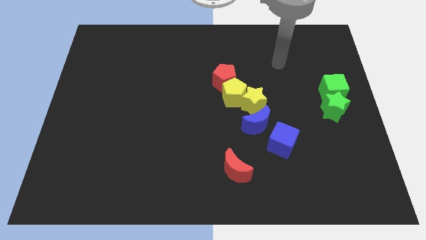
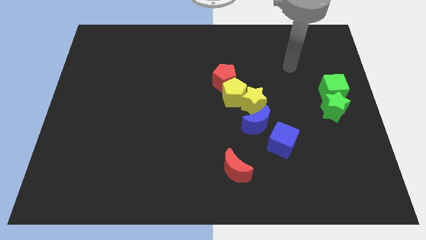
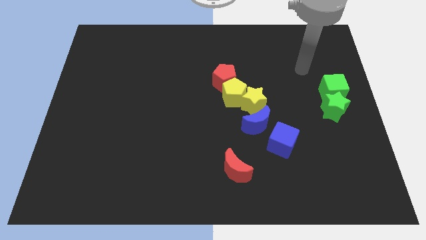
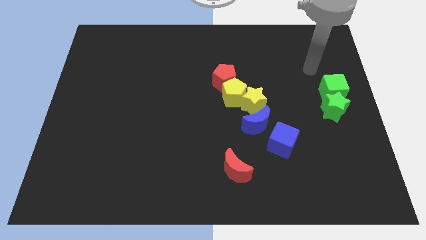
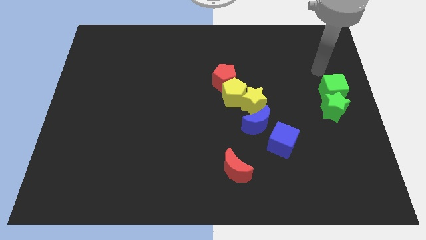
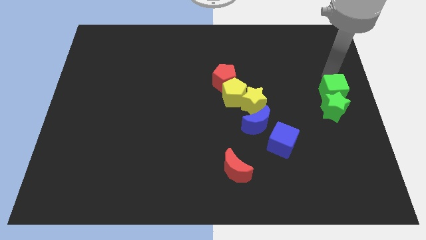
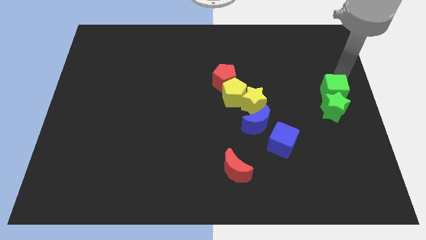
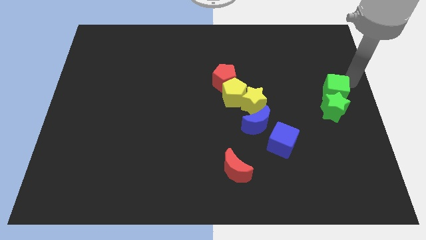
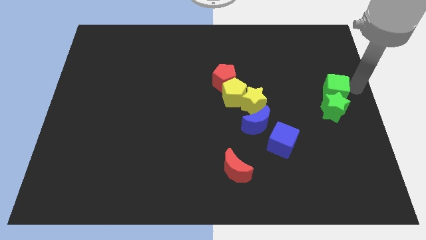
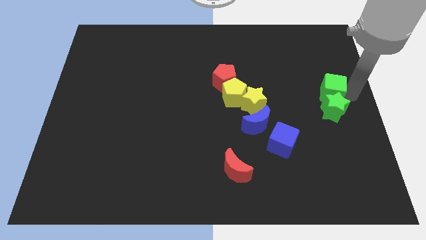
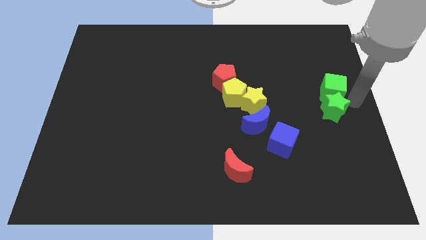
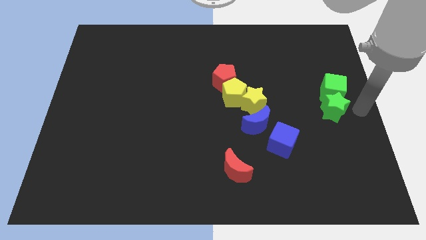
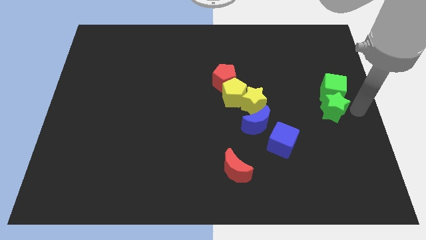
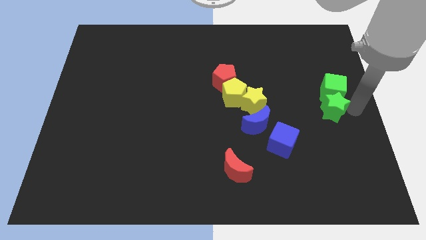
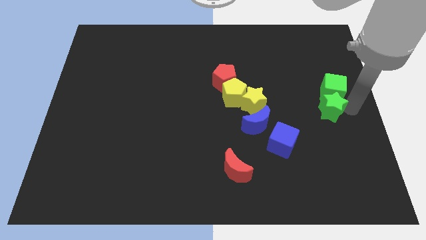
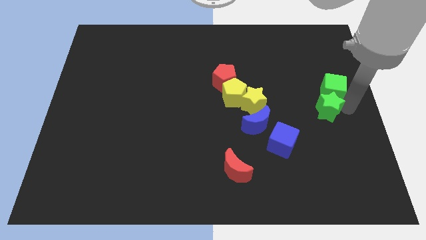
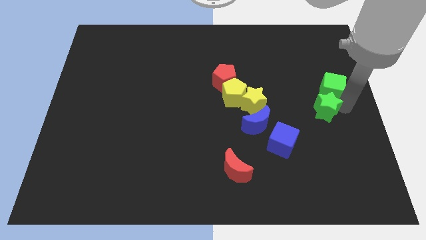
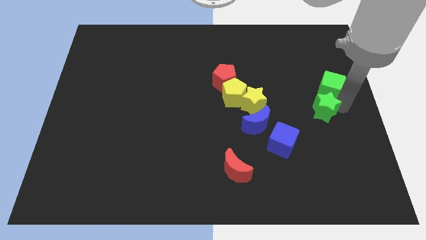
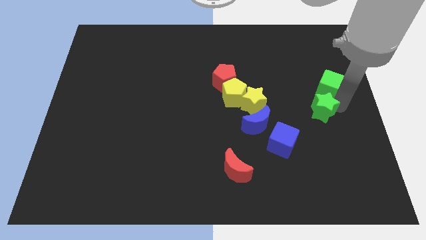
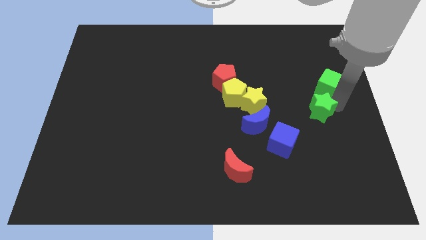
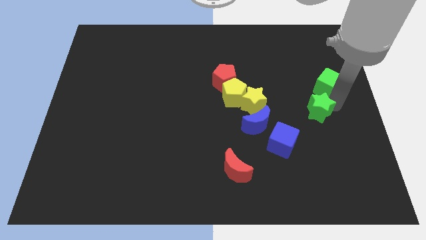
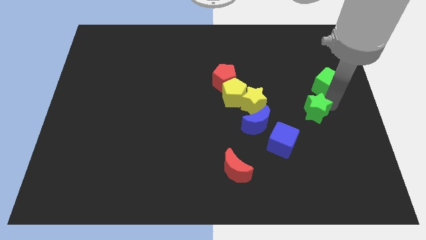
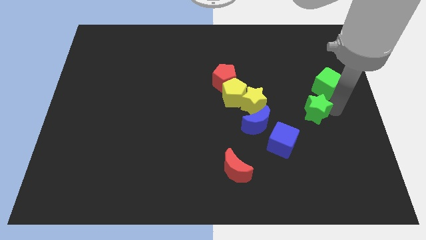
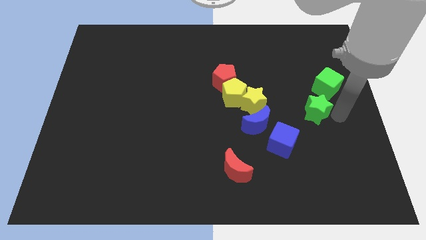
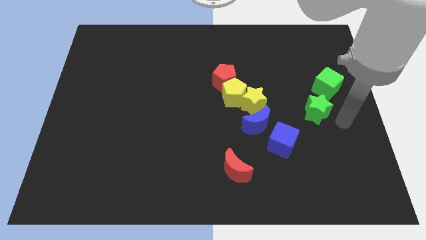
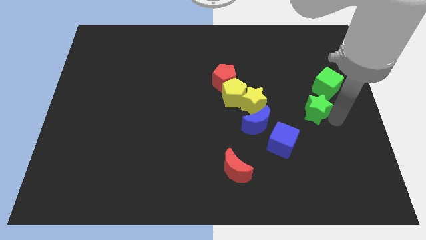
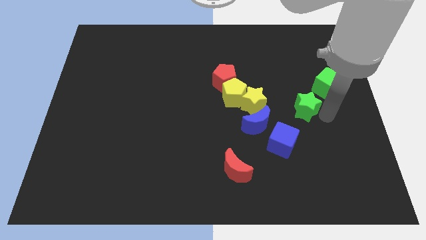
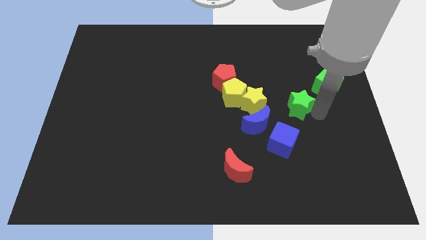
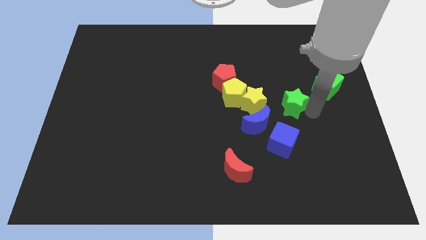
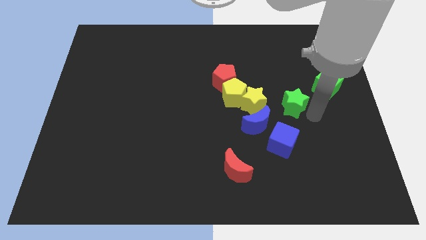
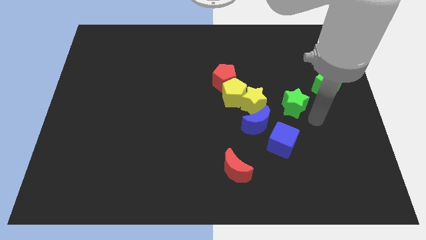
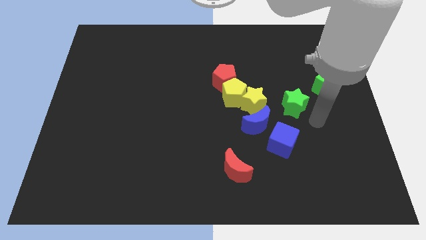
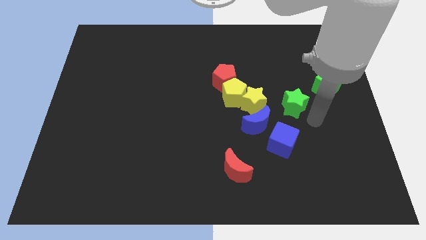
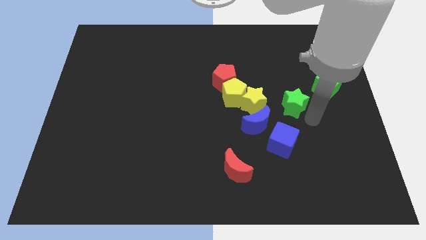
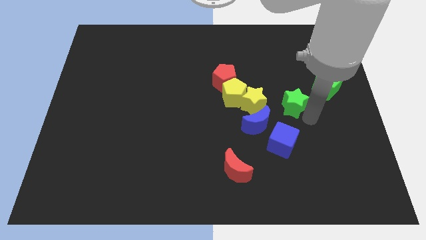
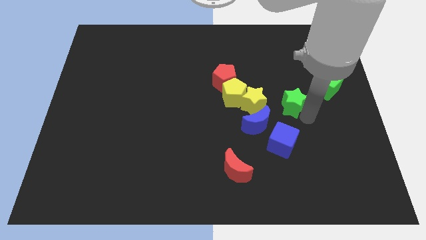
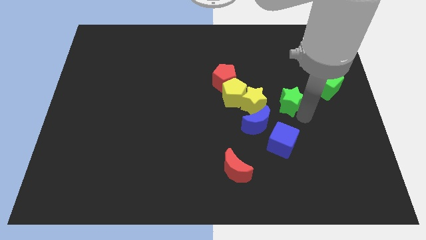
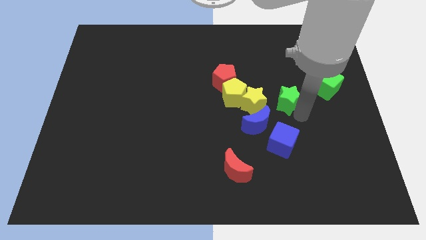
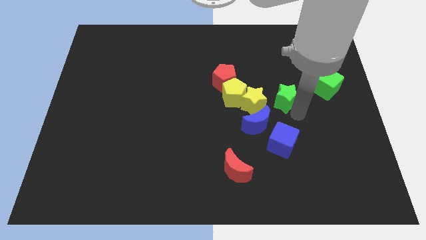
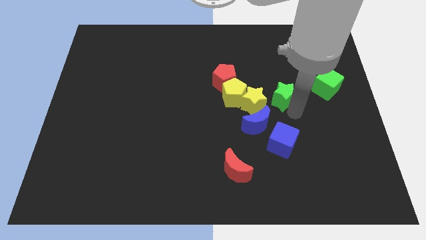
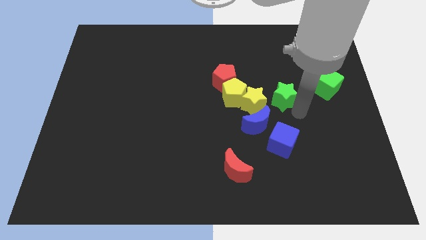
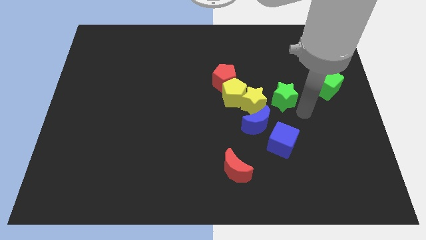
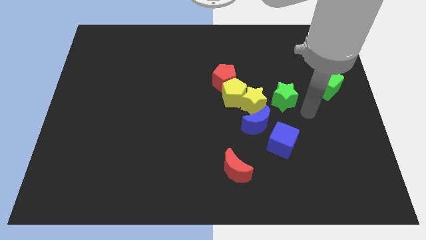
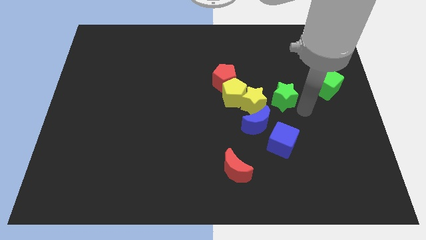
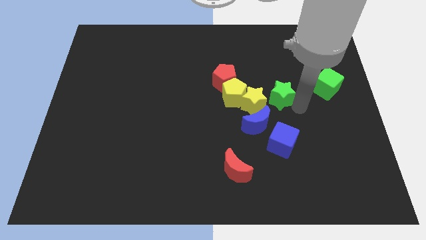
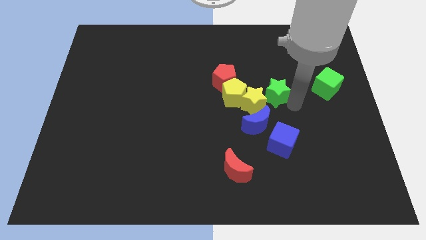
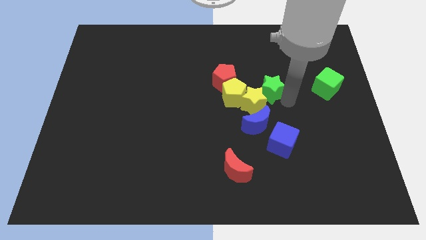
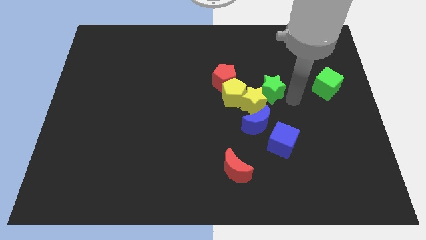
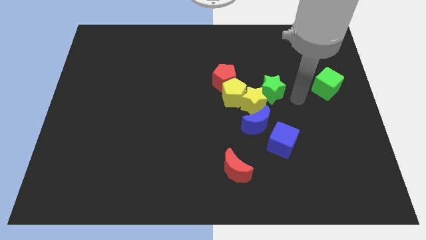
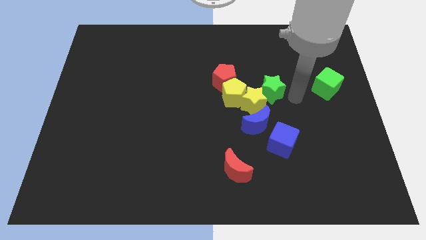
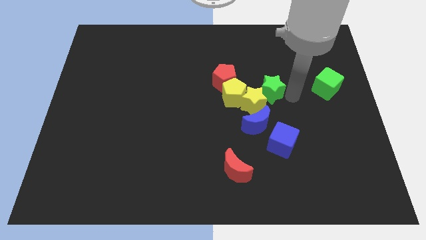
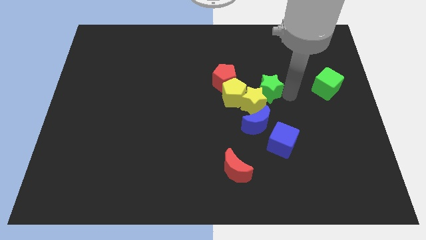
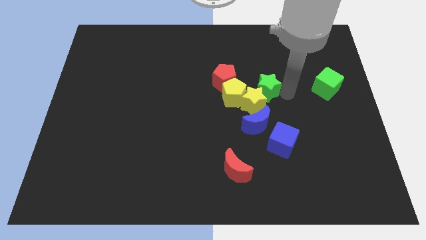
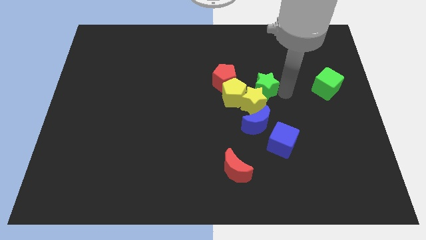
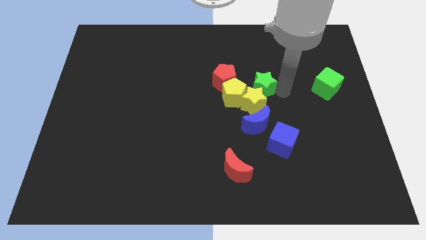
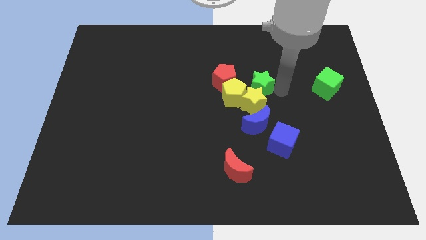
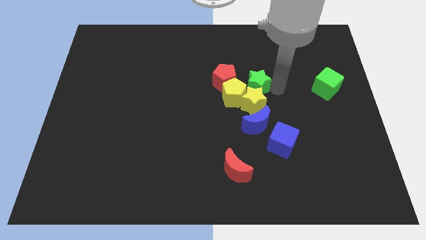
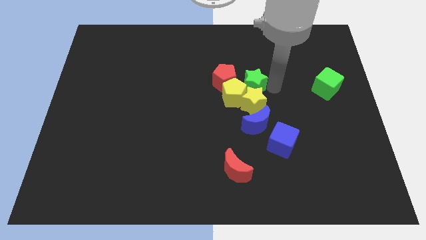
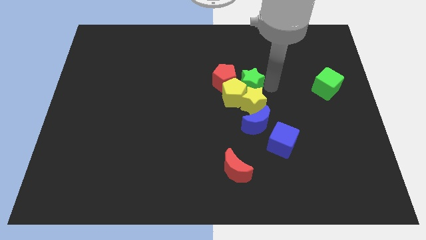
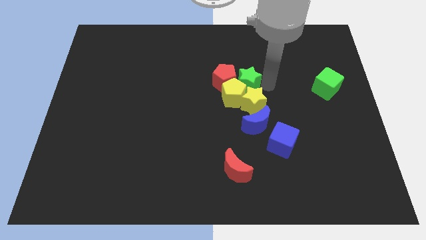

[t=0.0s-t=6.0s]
slide the green star close to the red pentagon

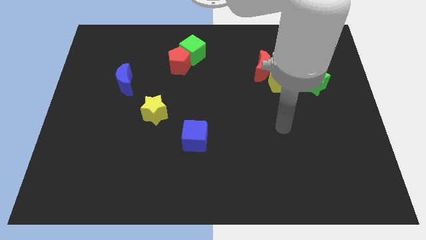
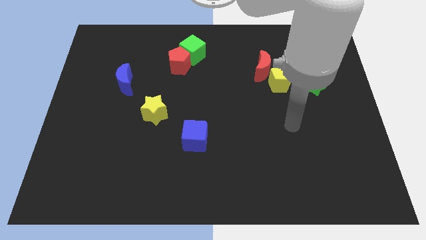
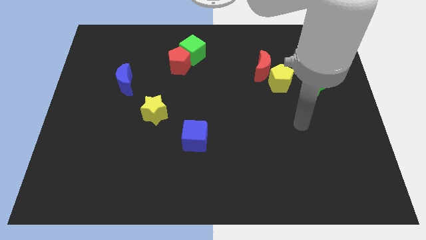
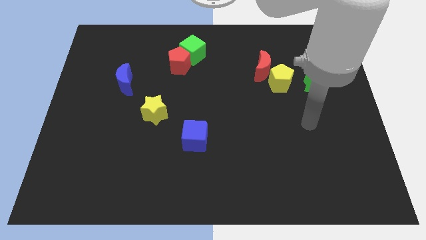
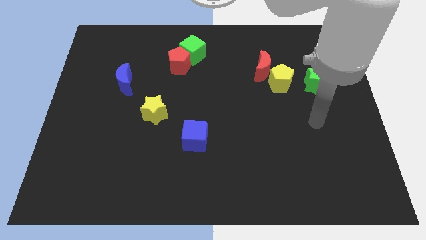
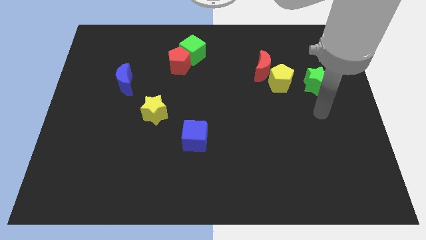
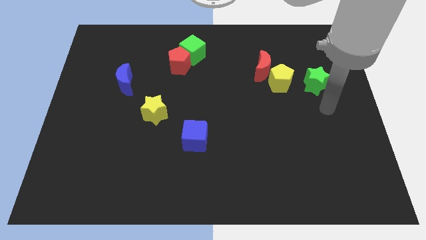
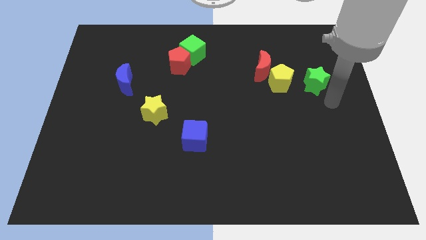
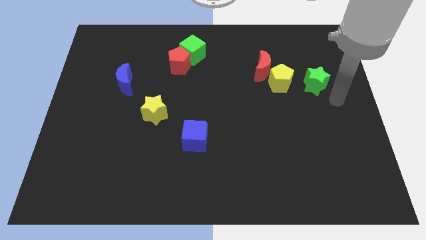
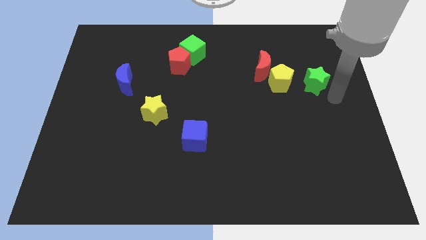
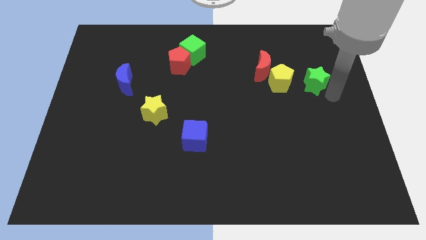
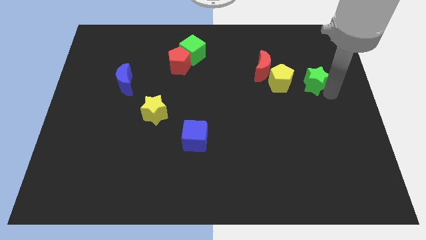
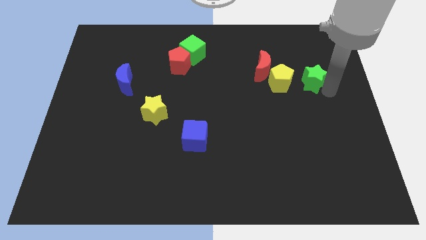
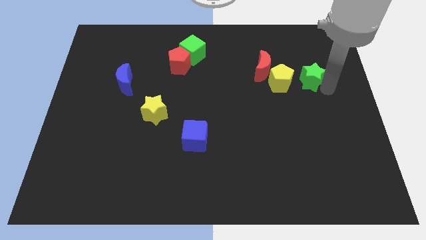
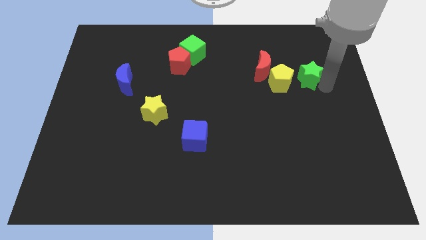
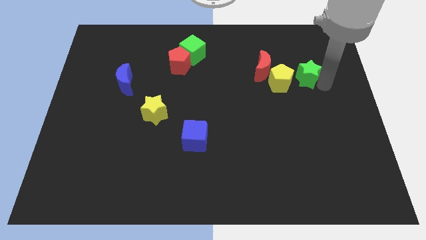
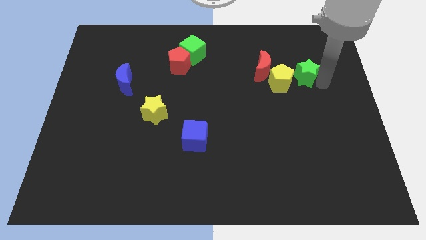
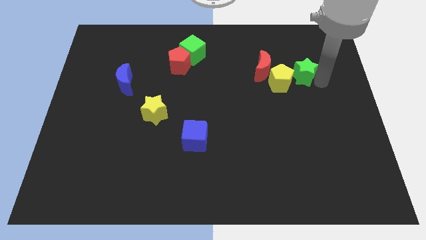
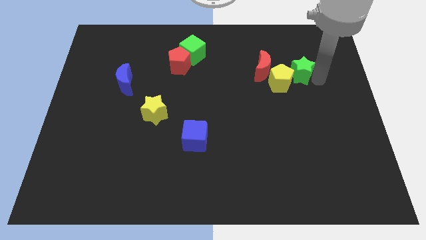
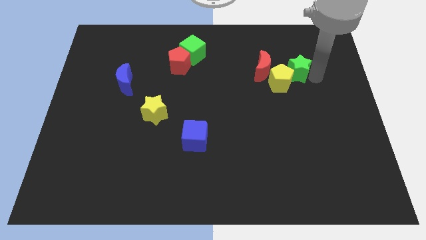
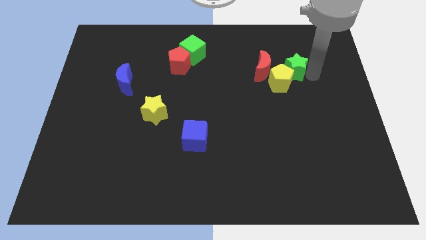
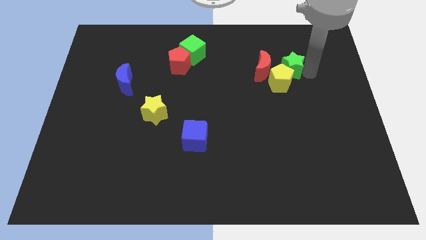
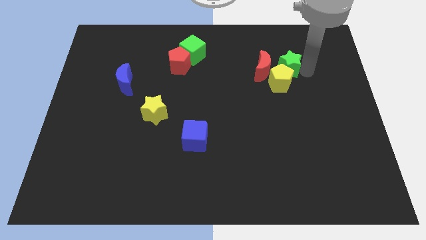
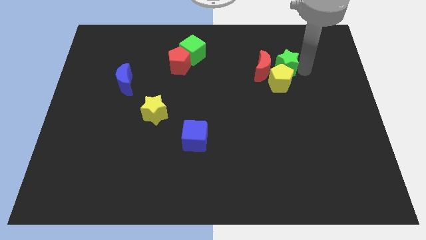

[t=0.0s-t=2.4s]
move the green star close to the red moon
